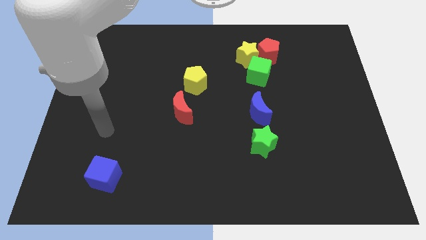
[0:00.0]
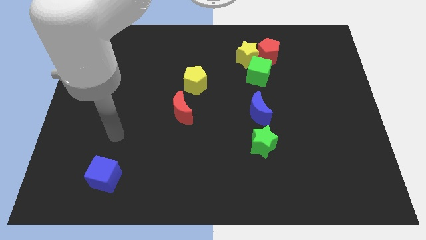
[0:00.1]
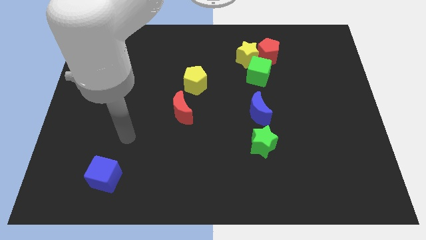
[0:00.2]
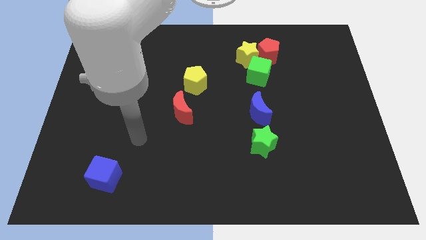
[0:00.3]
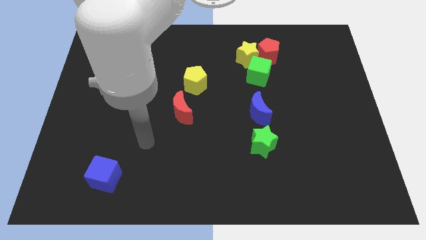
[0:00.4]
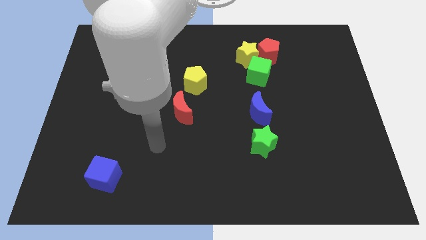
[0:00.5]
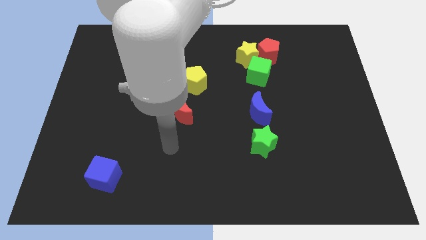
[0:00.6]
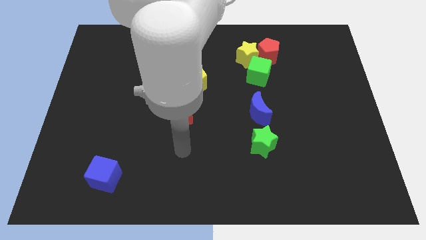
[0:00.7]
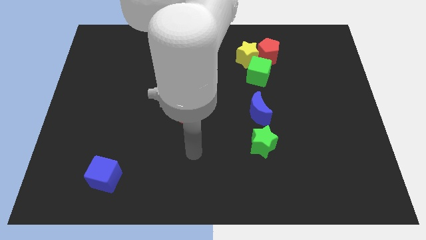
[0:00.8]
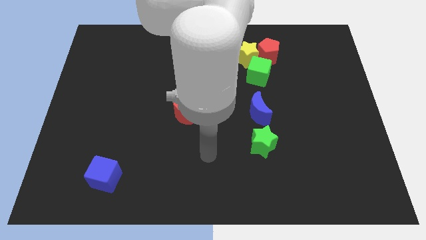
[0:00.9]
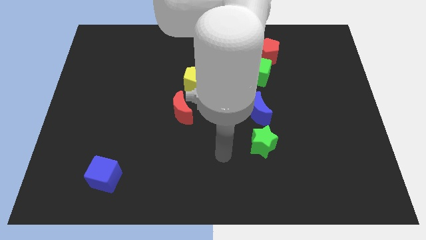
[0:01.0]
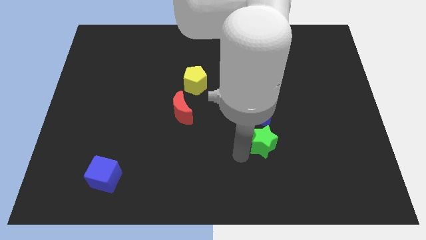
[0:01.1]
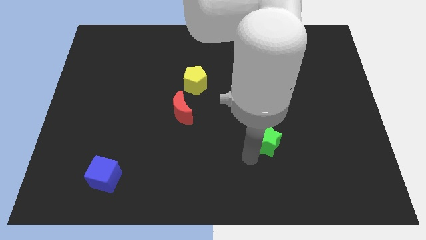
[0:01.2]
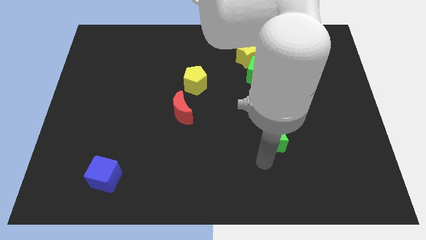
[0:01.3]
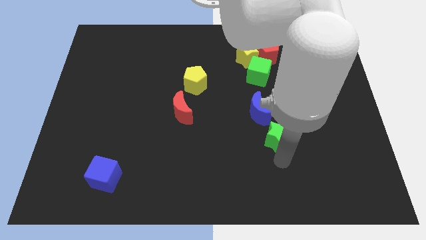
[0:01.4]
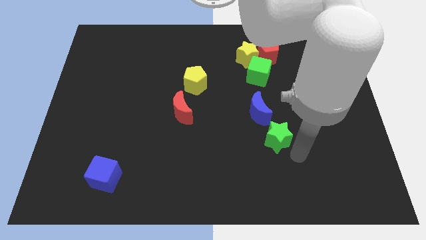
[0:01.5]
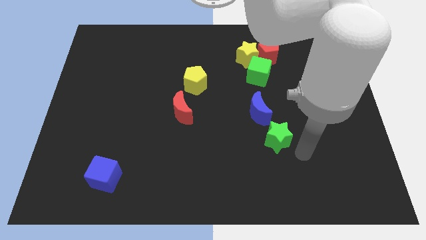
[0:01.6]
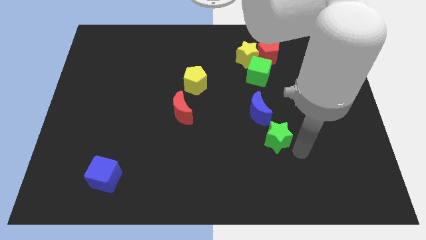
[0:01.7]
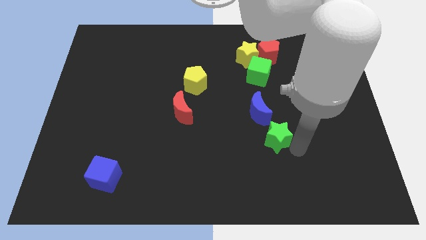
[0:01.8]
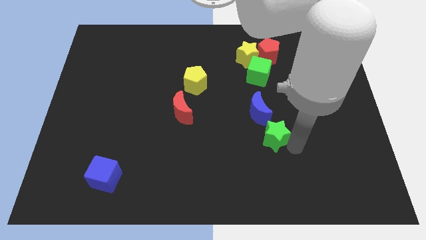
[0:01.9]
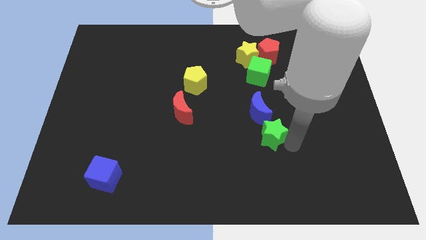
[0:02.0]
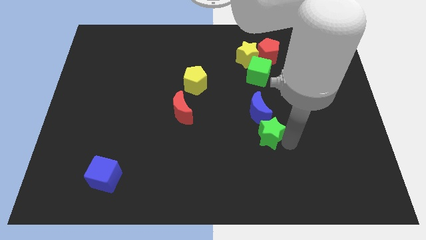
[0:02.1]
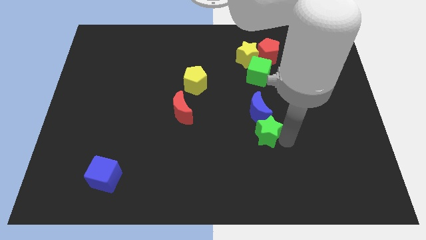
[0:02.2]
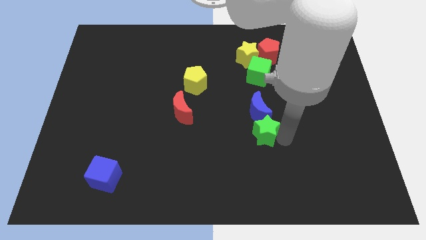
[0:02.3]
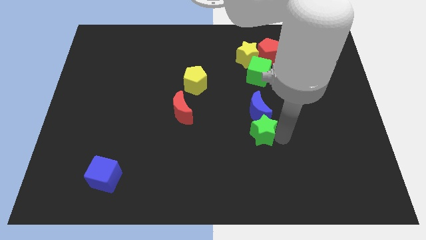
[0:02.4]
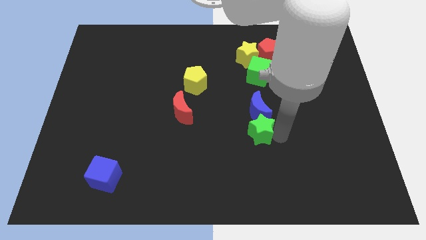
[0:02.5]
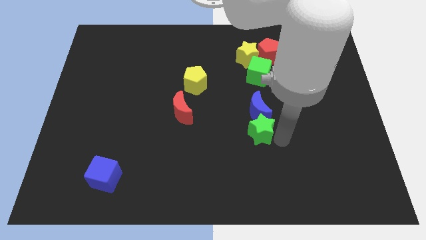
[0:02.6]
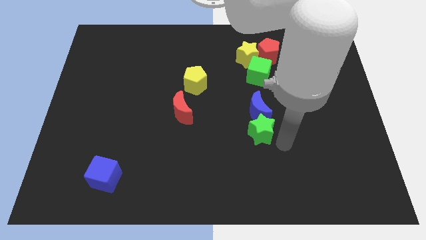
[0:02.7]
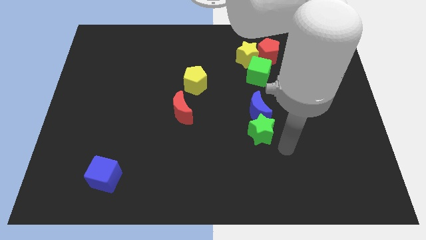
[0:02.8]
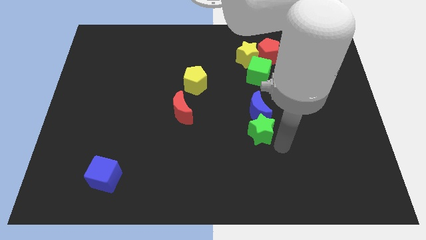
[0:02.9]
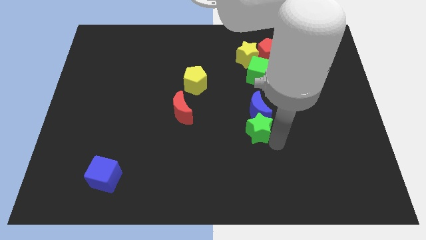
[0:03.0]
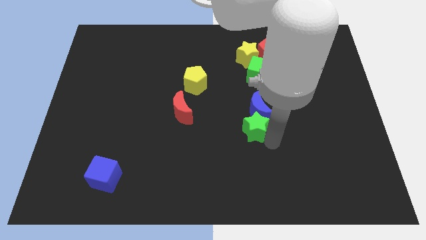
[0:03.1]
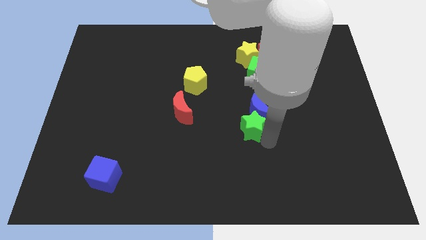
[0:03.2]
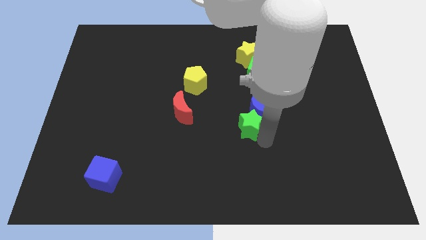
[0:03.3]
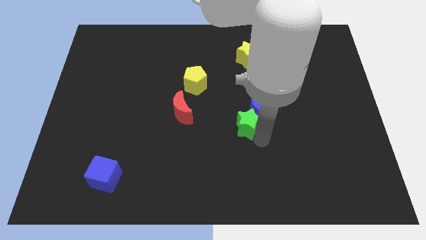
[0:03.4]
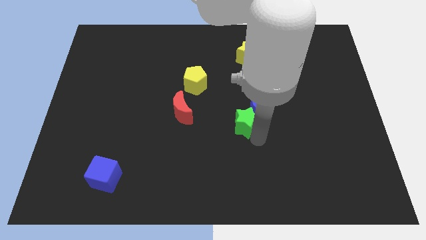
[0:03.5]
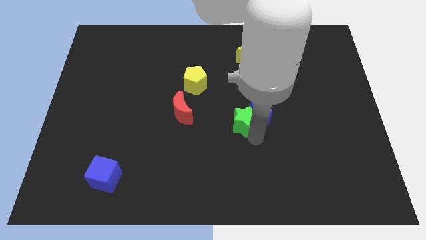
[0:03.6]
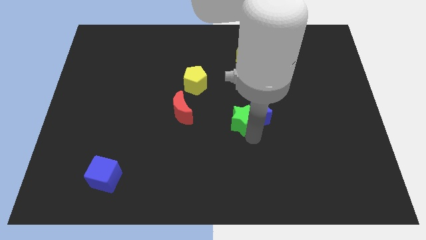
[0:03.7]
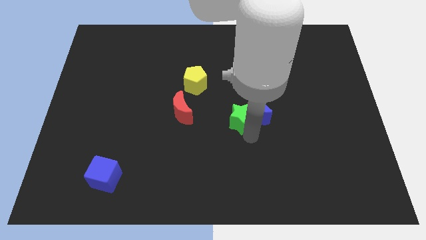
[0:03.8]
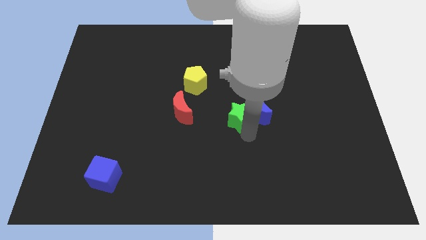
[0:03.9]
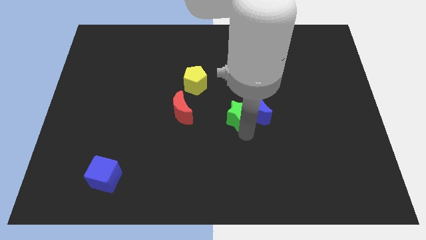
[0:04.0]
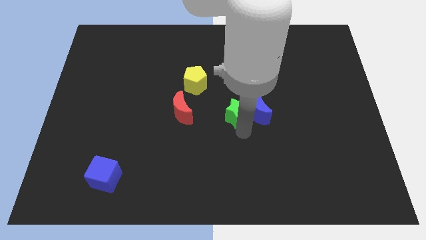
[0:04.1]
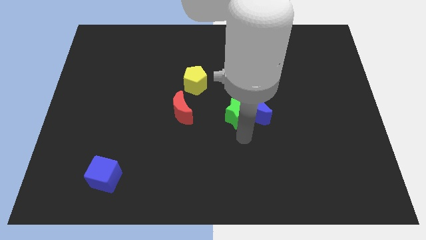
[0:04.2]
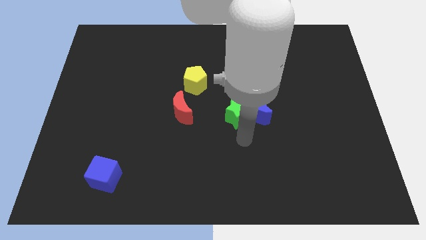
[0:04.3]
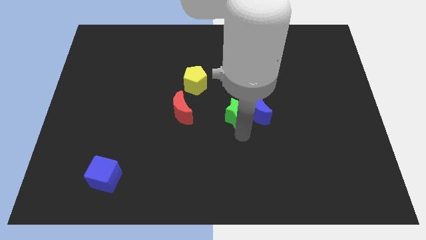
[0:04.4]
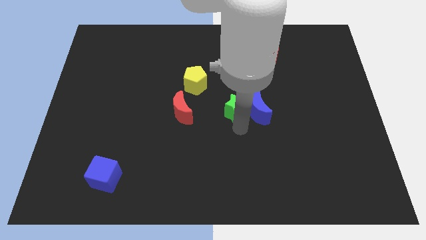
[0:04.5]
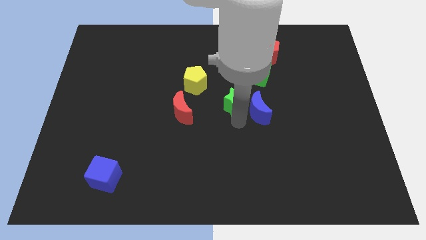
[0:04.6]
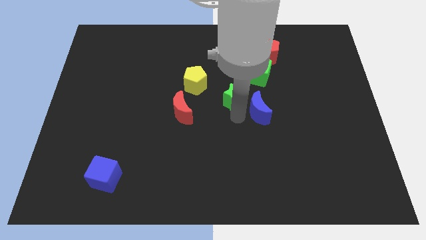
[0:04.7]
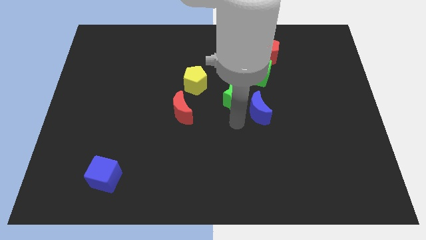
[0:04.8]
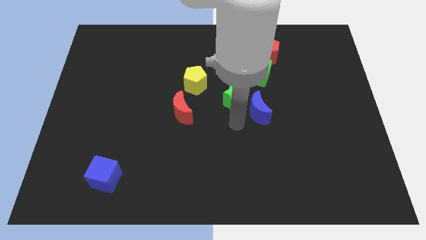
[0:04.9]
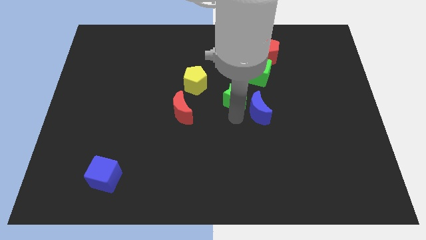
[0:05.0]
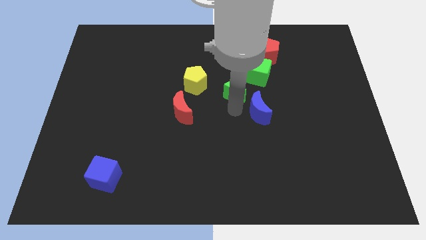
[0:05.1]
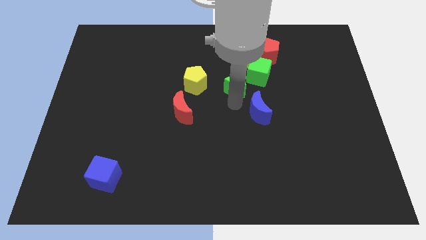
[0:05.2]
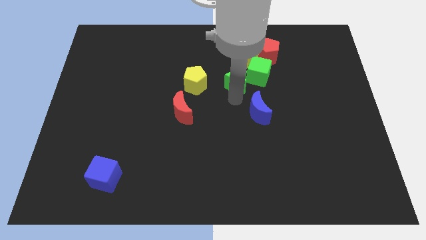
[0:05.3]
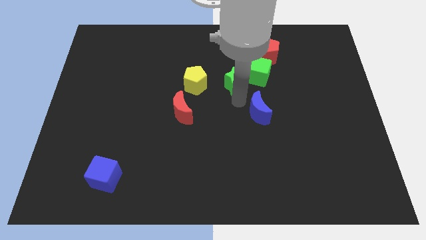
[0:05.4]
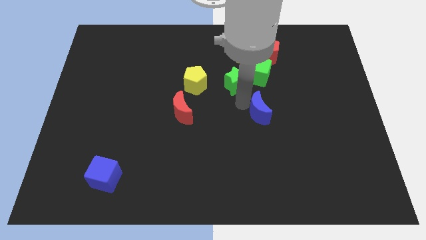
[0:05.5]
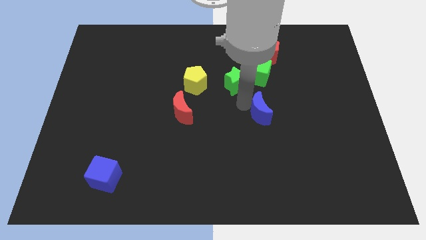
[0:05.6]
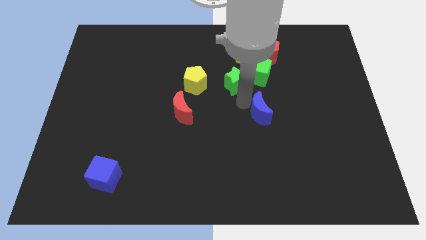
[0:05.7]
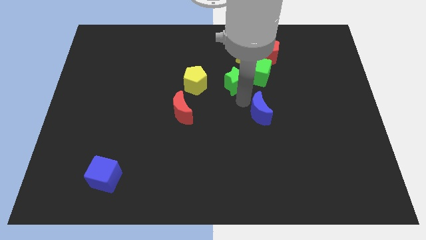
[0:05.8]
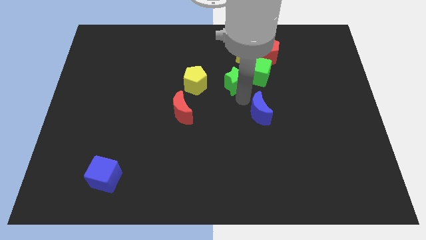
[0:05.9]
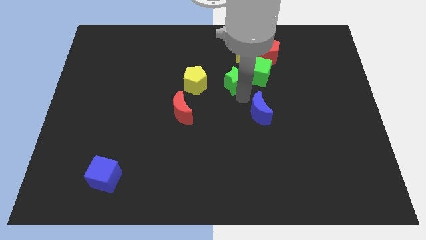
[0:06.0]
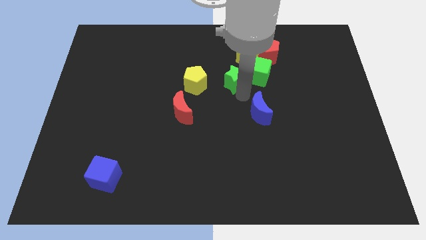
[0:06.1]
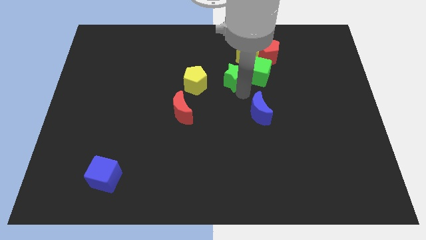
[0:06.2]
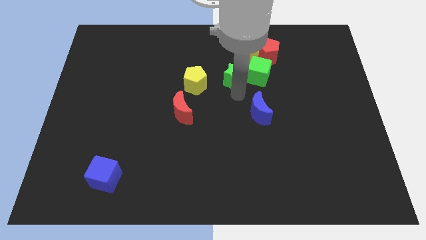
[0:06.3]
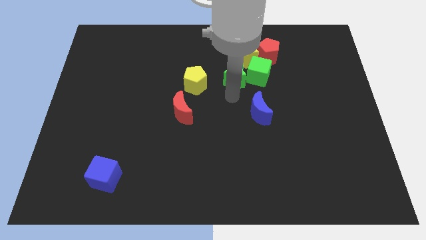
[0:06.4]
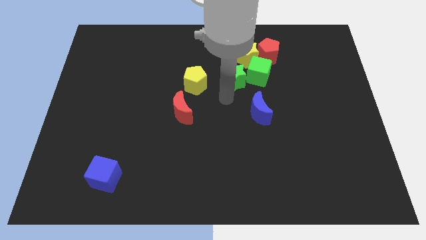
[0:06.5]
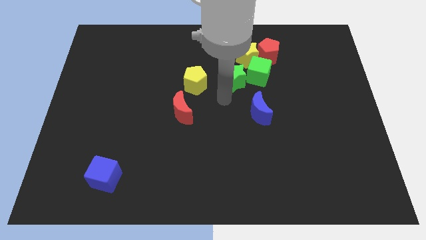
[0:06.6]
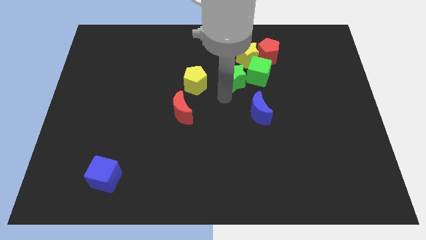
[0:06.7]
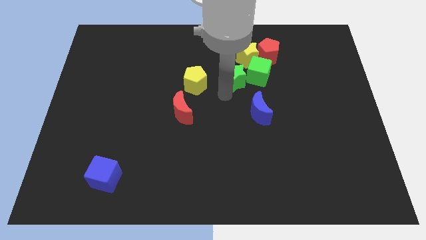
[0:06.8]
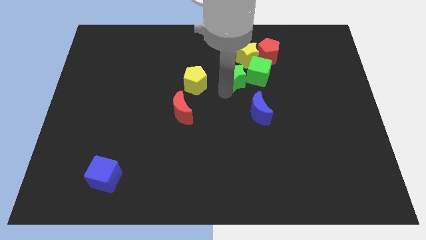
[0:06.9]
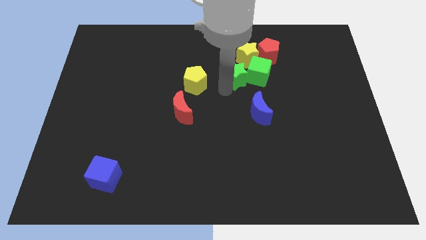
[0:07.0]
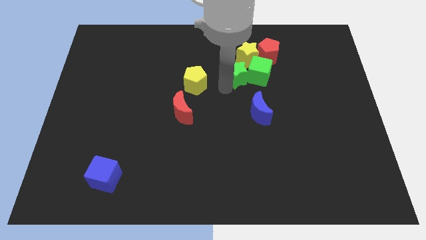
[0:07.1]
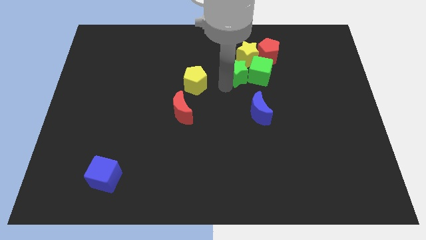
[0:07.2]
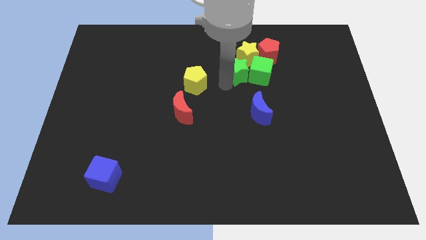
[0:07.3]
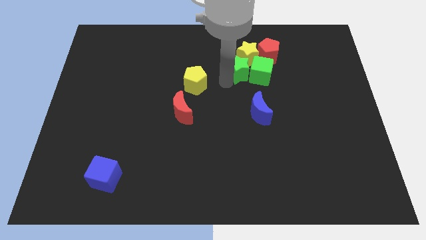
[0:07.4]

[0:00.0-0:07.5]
put the green star close to the yellow star
